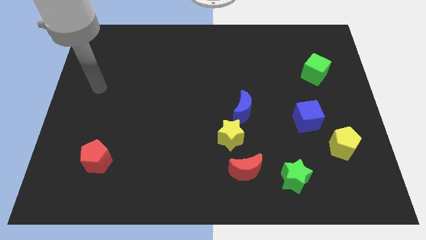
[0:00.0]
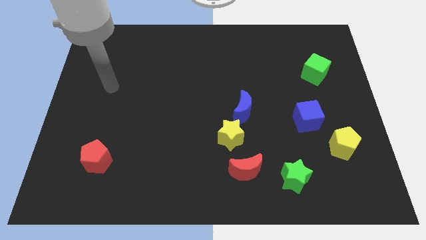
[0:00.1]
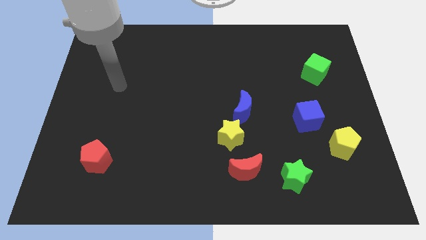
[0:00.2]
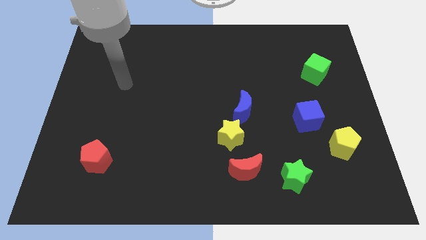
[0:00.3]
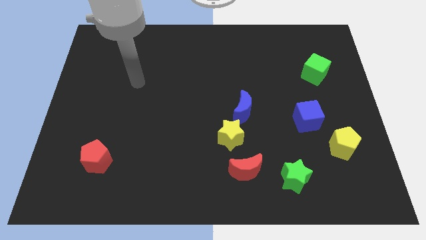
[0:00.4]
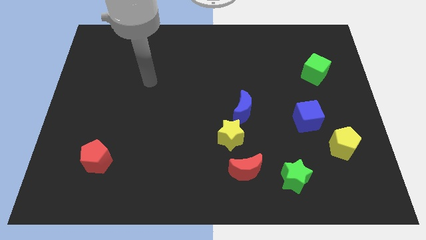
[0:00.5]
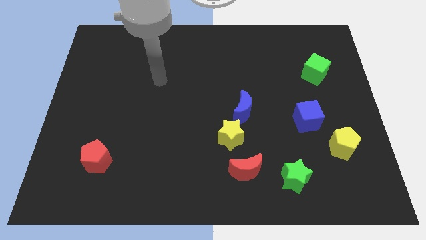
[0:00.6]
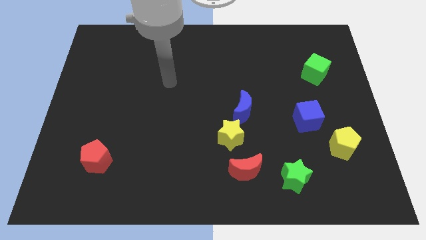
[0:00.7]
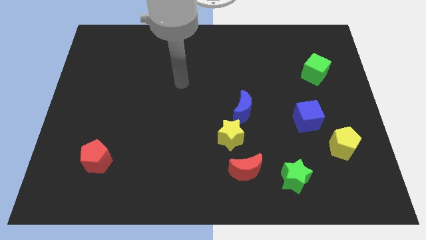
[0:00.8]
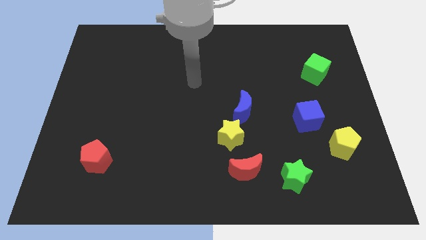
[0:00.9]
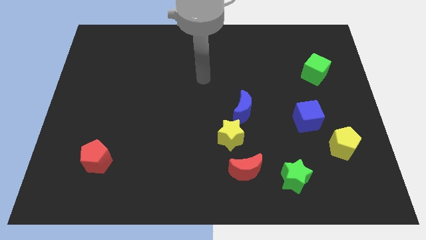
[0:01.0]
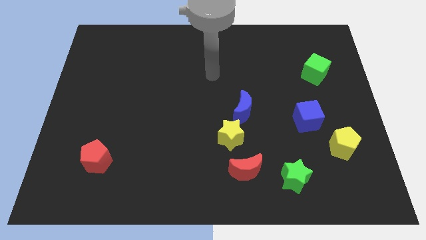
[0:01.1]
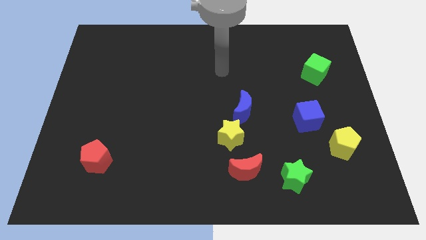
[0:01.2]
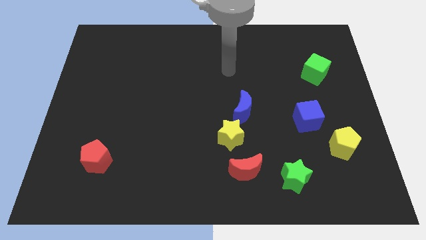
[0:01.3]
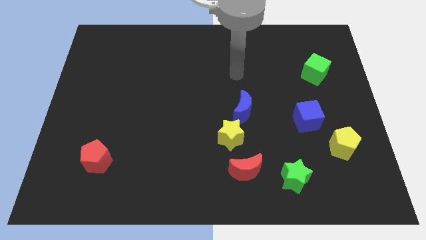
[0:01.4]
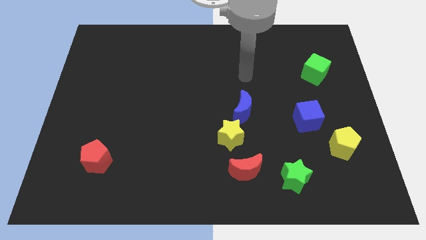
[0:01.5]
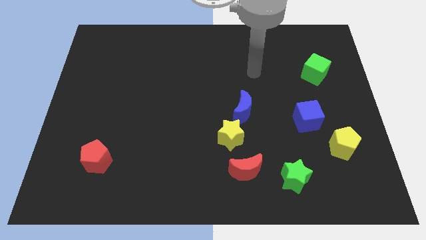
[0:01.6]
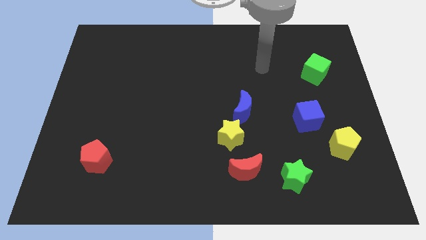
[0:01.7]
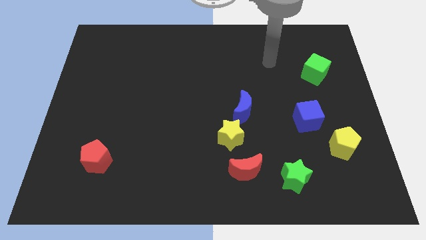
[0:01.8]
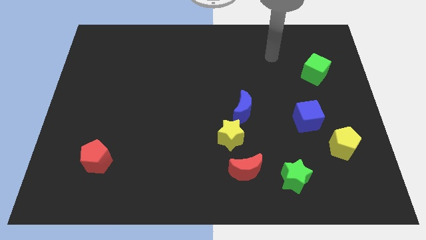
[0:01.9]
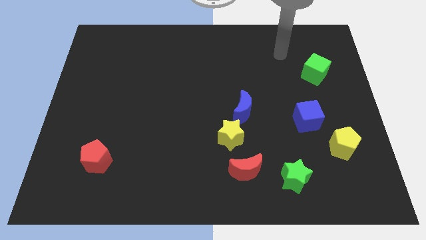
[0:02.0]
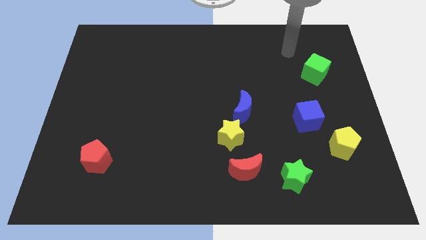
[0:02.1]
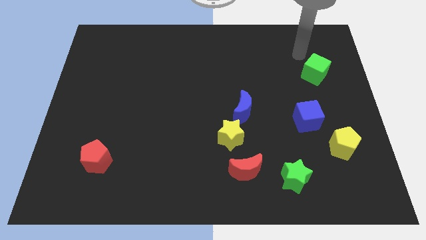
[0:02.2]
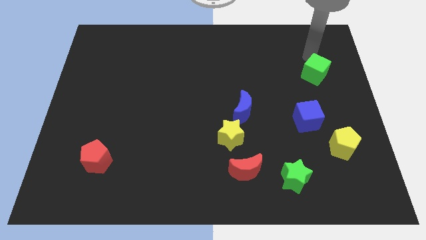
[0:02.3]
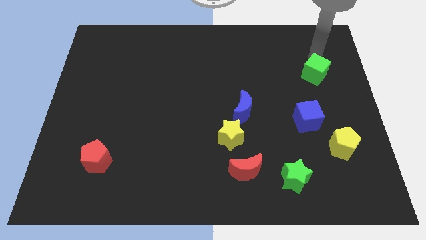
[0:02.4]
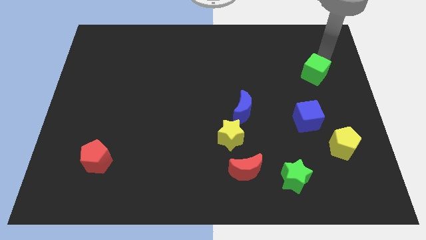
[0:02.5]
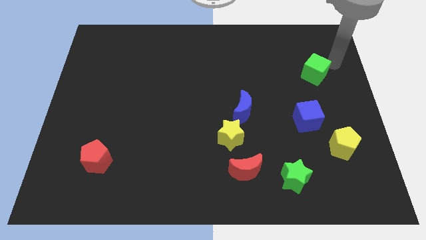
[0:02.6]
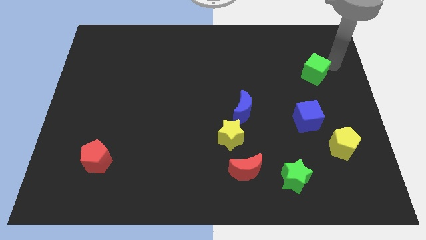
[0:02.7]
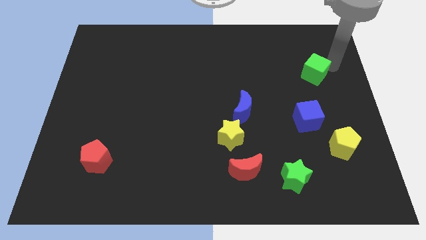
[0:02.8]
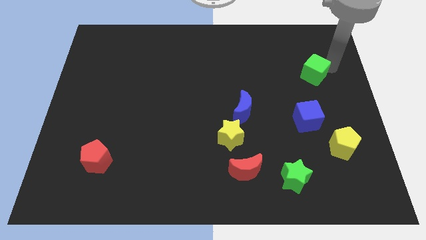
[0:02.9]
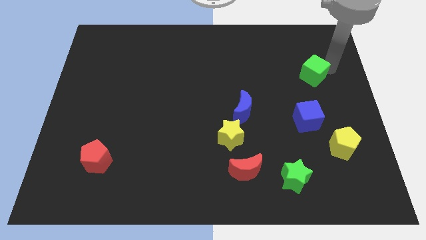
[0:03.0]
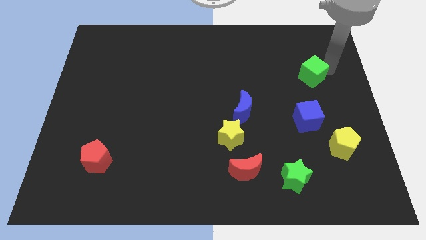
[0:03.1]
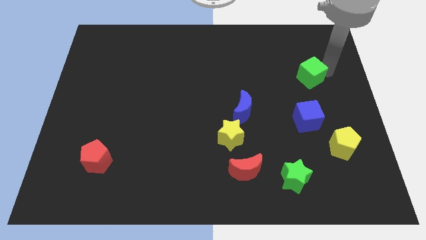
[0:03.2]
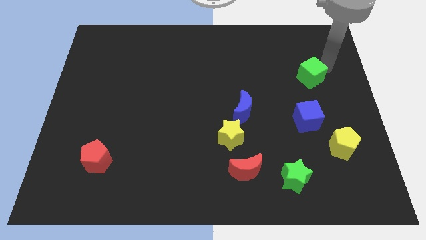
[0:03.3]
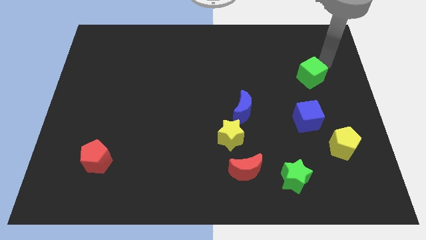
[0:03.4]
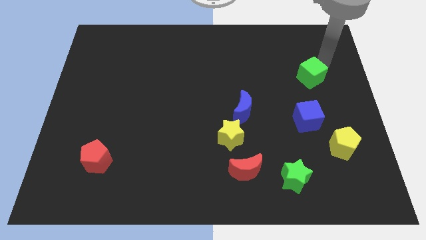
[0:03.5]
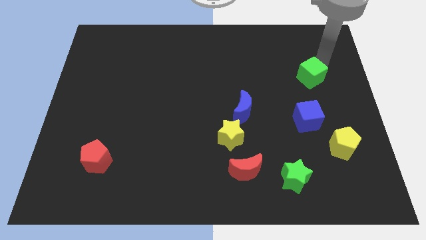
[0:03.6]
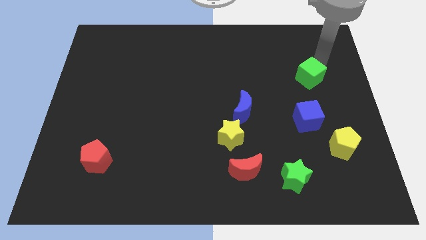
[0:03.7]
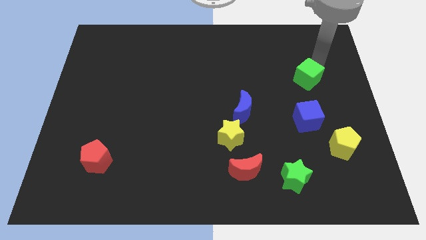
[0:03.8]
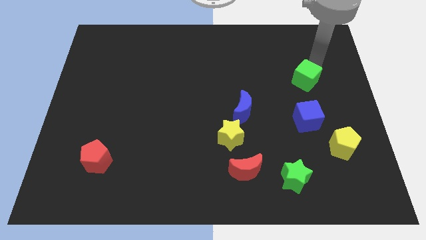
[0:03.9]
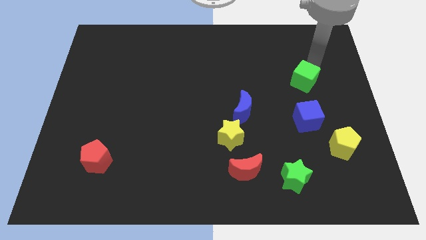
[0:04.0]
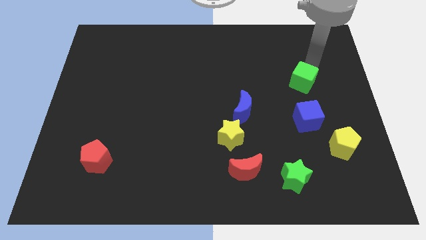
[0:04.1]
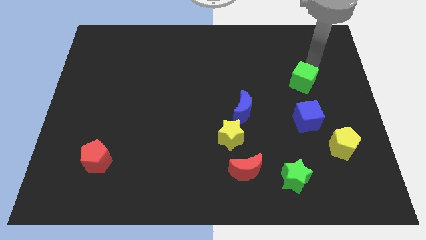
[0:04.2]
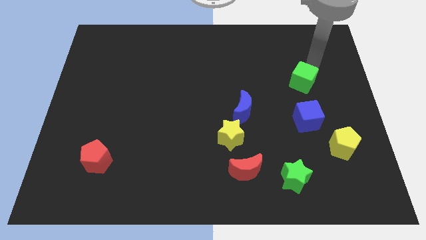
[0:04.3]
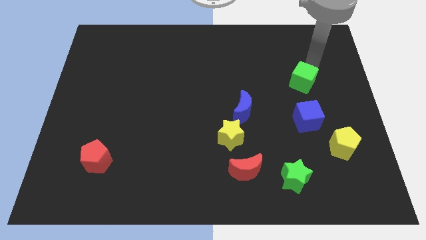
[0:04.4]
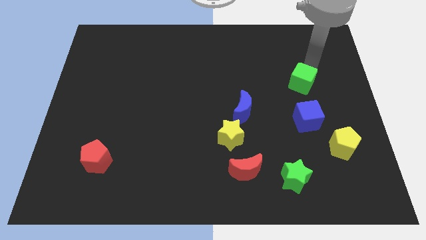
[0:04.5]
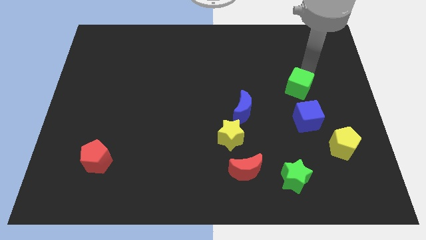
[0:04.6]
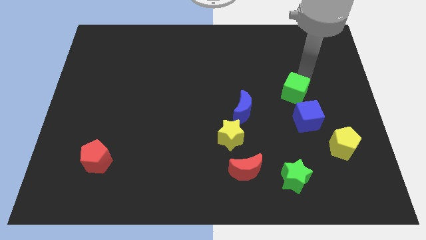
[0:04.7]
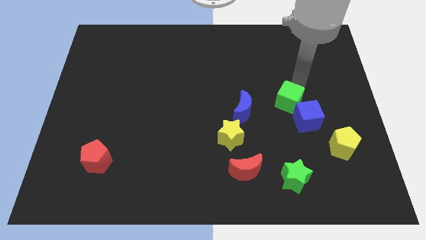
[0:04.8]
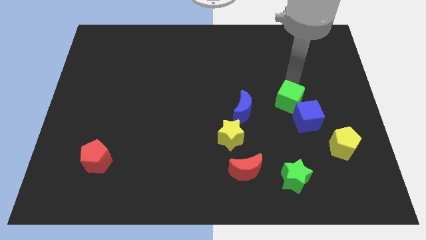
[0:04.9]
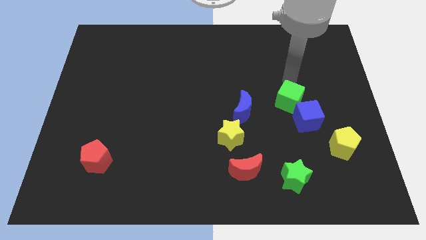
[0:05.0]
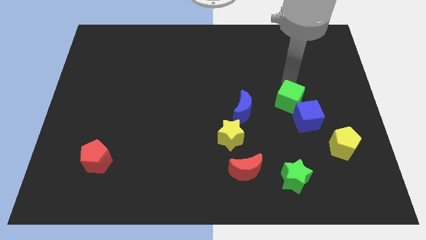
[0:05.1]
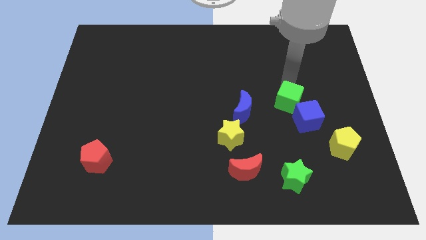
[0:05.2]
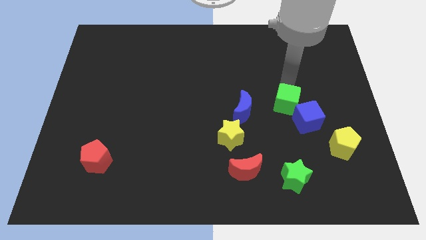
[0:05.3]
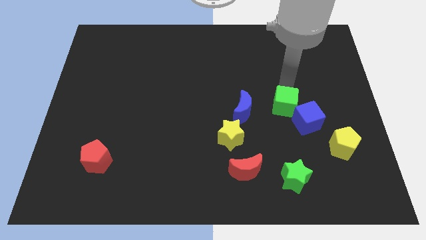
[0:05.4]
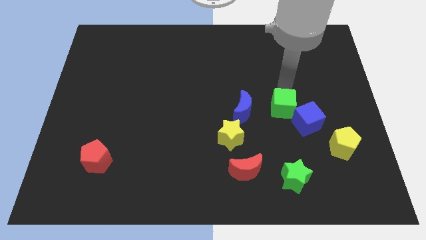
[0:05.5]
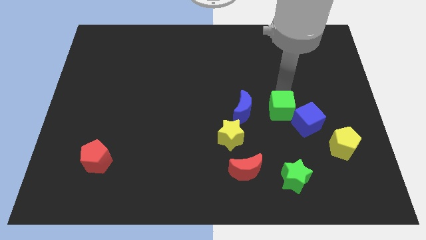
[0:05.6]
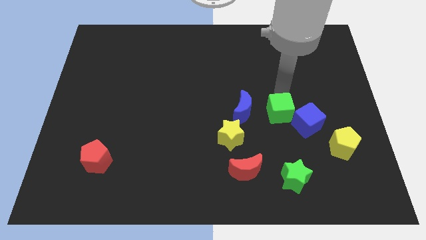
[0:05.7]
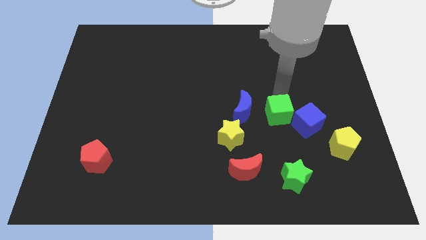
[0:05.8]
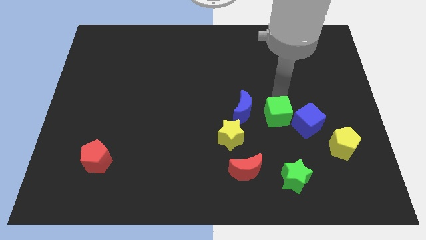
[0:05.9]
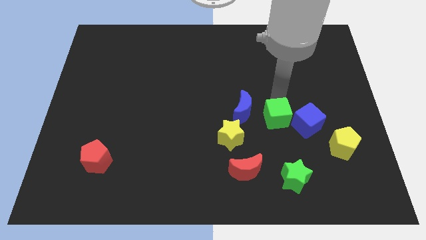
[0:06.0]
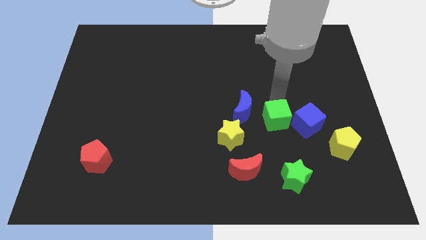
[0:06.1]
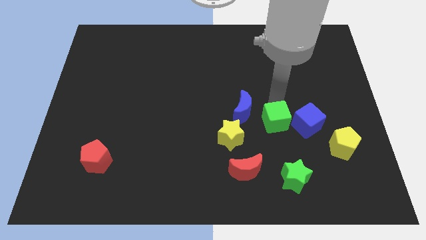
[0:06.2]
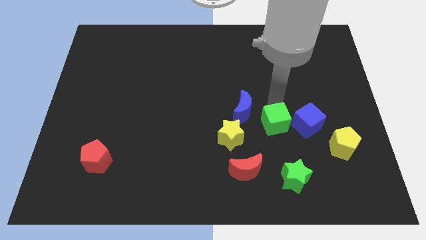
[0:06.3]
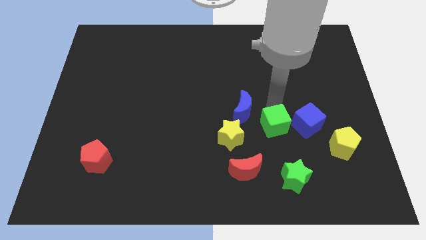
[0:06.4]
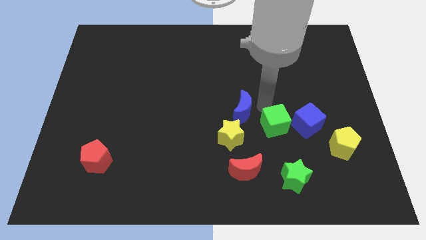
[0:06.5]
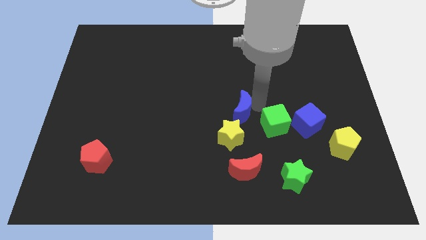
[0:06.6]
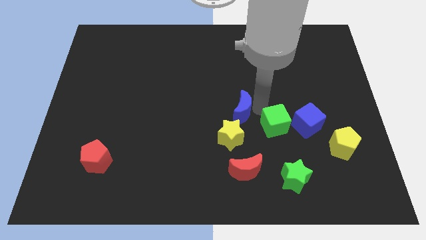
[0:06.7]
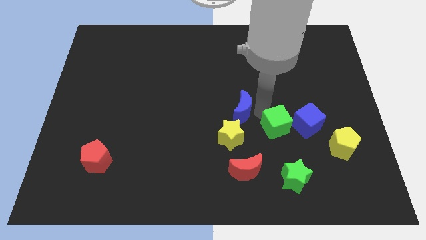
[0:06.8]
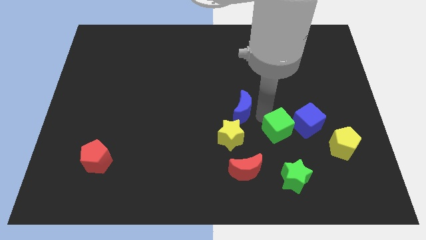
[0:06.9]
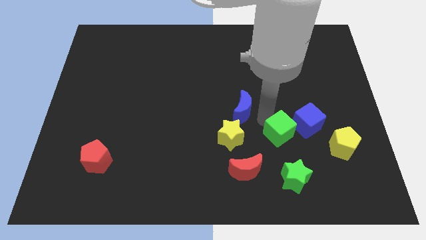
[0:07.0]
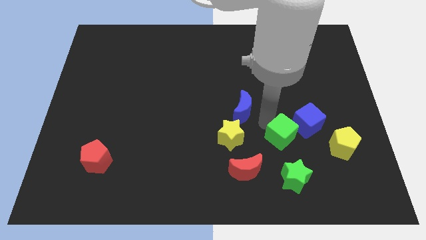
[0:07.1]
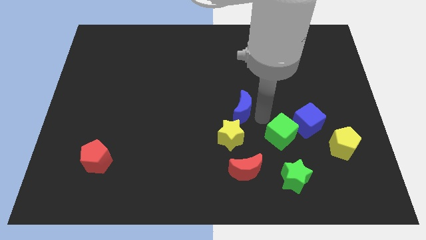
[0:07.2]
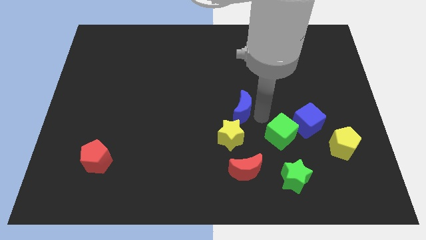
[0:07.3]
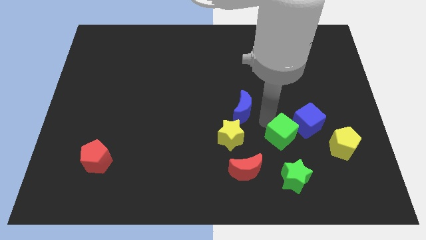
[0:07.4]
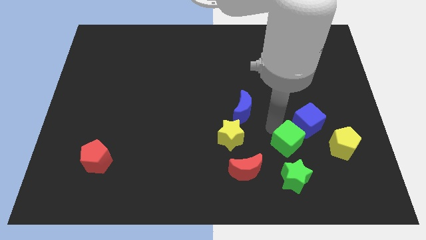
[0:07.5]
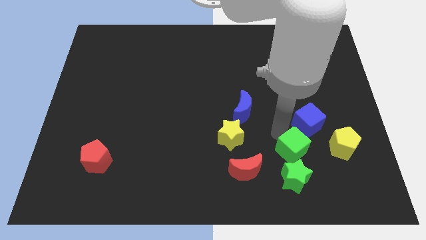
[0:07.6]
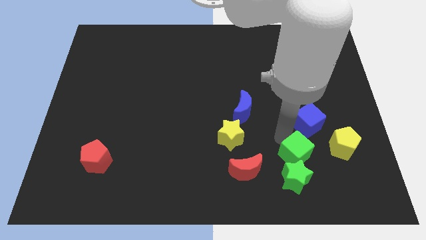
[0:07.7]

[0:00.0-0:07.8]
push the green cube just right of the red moon
